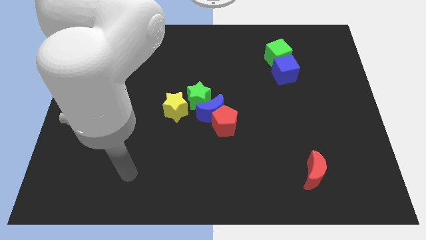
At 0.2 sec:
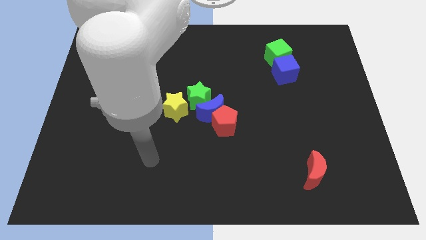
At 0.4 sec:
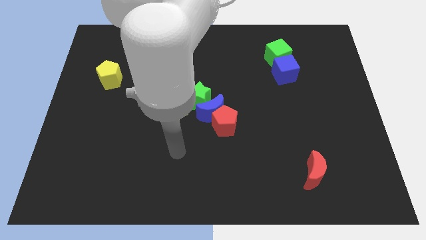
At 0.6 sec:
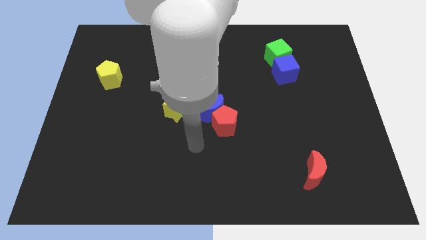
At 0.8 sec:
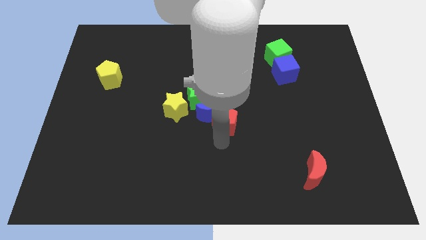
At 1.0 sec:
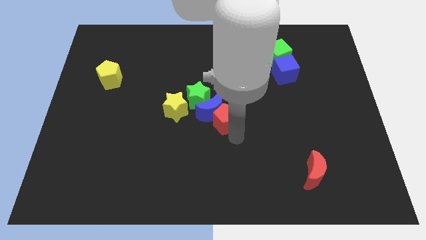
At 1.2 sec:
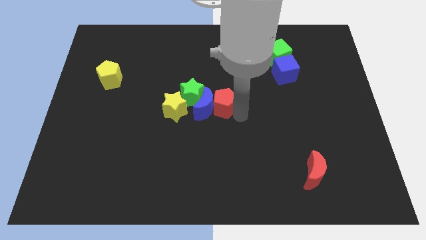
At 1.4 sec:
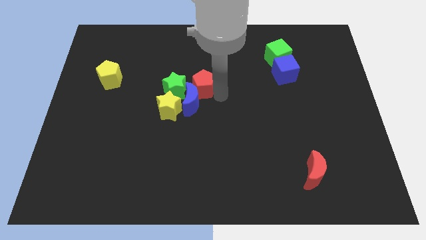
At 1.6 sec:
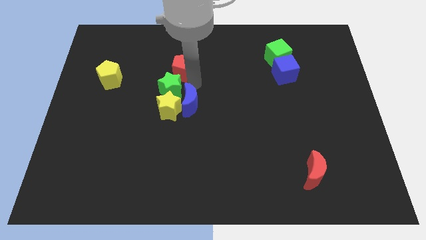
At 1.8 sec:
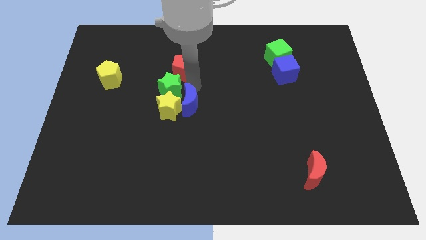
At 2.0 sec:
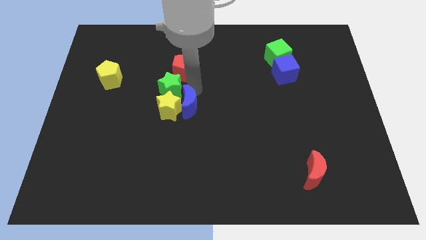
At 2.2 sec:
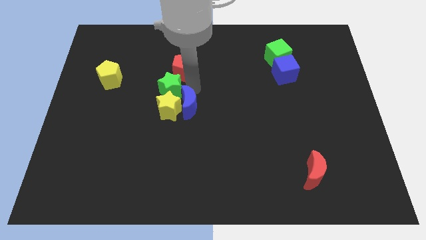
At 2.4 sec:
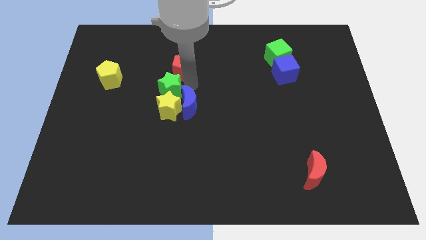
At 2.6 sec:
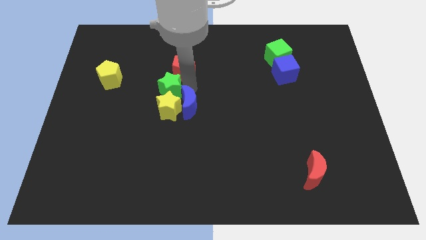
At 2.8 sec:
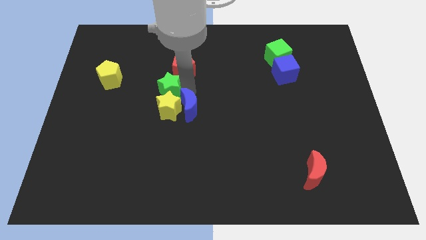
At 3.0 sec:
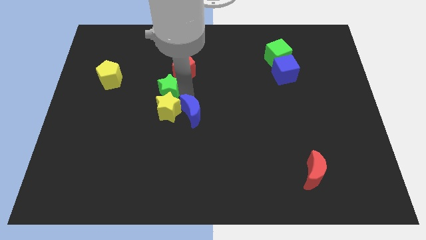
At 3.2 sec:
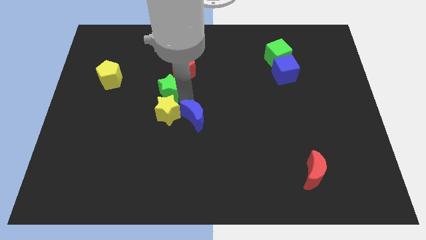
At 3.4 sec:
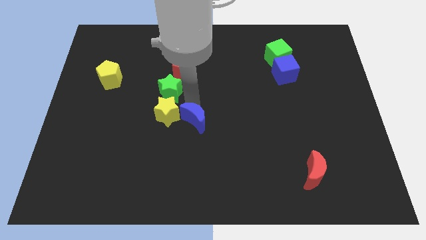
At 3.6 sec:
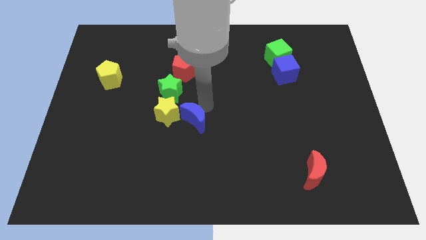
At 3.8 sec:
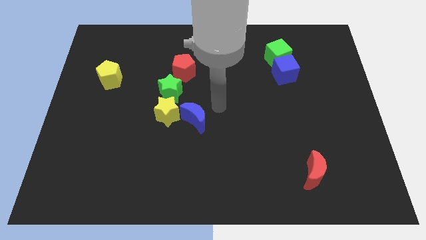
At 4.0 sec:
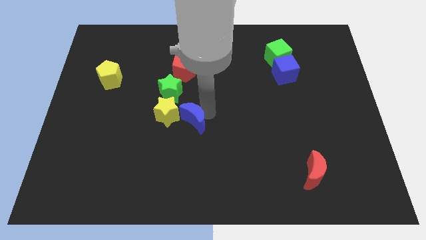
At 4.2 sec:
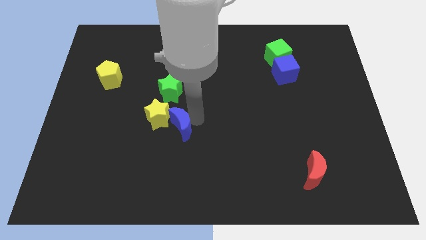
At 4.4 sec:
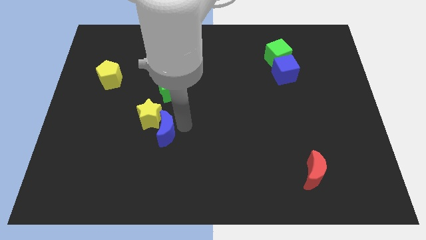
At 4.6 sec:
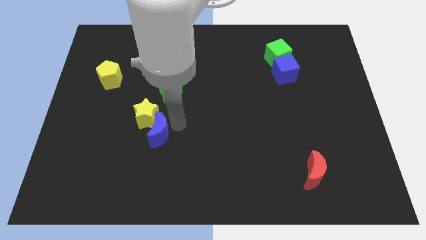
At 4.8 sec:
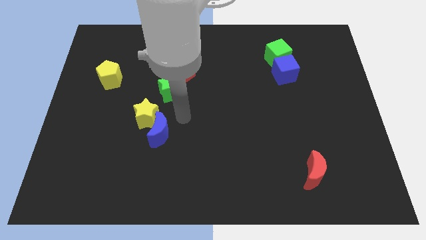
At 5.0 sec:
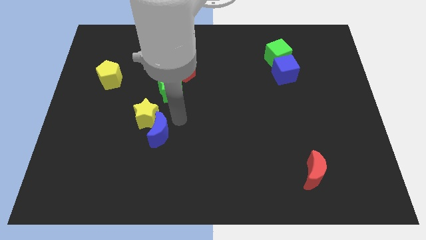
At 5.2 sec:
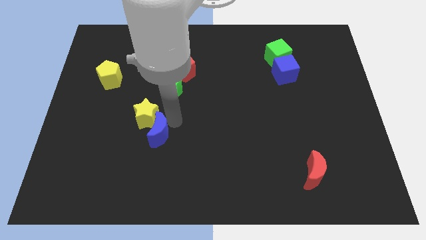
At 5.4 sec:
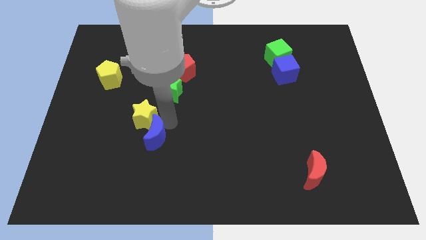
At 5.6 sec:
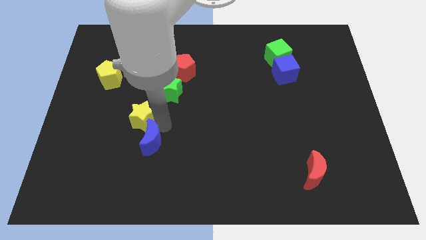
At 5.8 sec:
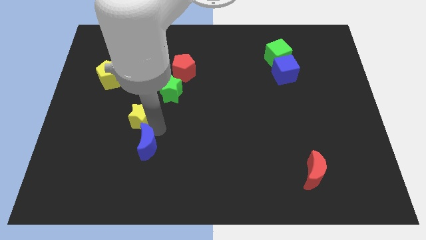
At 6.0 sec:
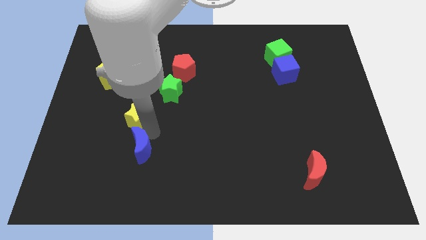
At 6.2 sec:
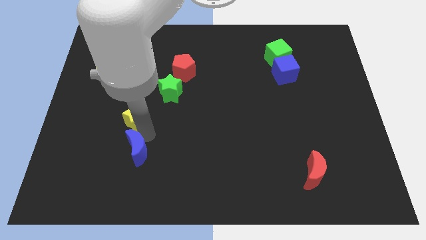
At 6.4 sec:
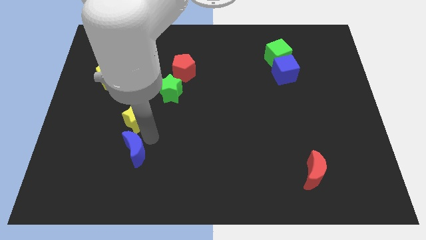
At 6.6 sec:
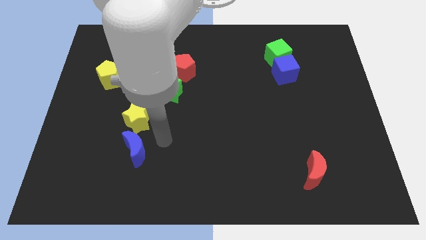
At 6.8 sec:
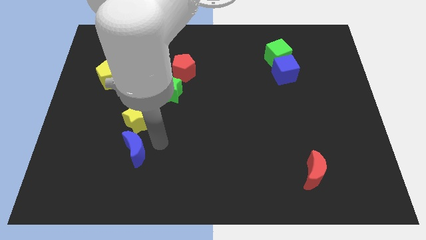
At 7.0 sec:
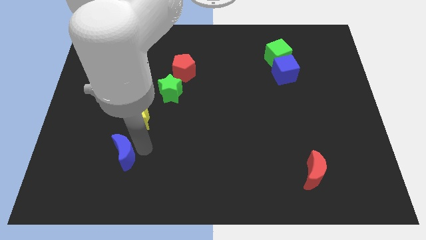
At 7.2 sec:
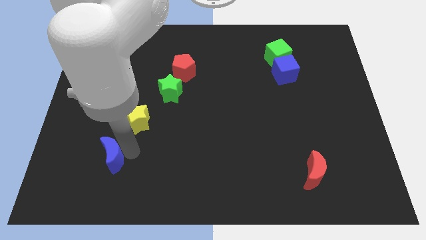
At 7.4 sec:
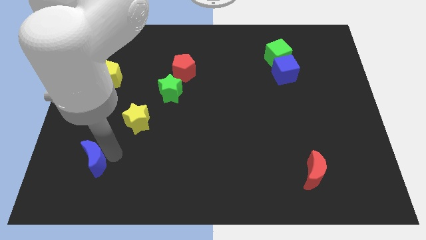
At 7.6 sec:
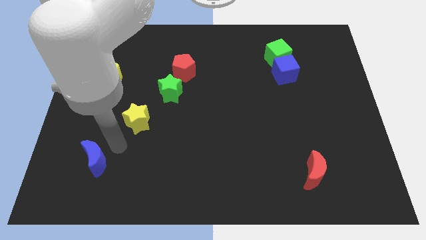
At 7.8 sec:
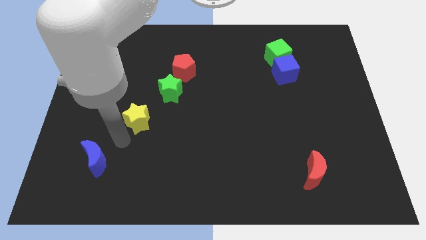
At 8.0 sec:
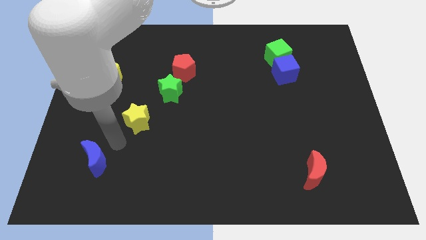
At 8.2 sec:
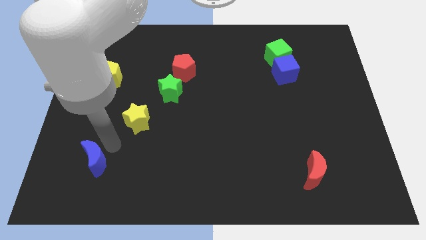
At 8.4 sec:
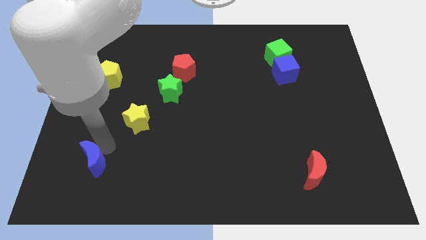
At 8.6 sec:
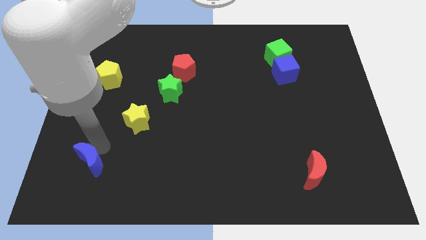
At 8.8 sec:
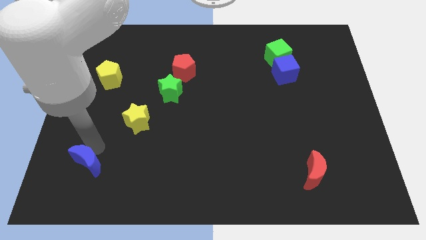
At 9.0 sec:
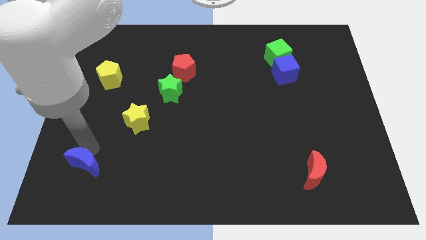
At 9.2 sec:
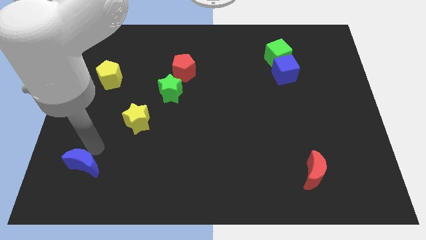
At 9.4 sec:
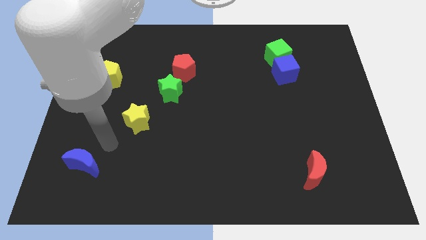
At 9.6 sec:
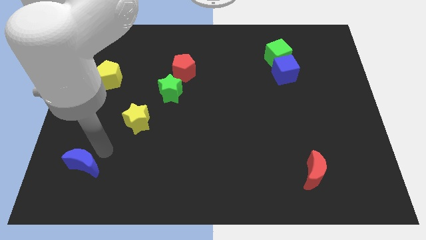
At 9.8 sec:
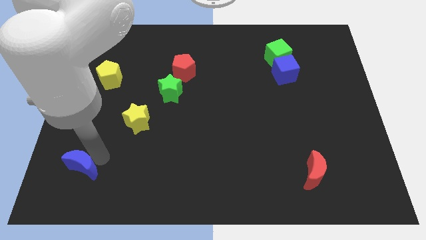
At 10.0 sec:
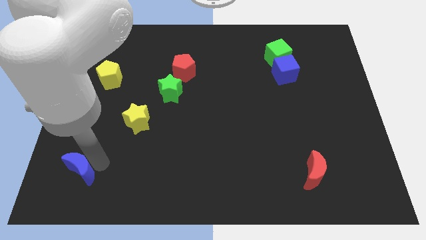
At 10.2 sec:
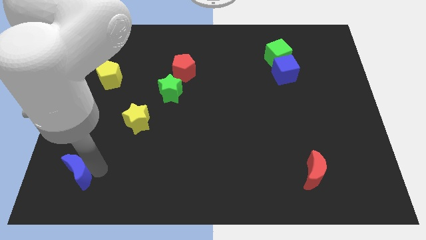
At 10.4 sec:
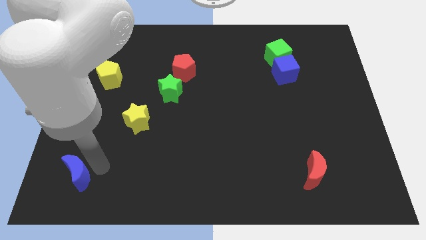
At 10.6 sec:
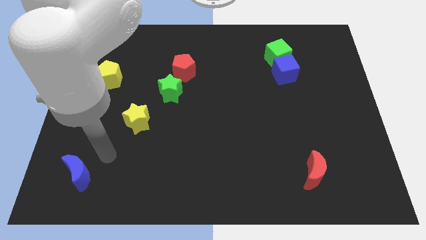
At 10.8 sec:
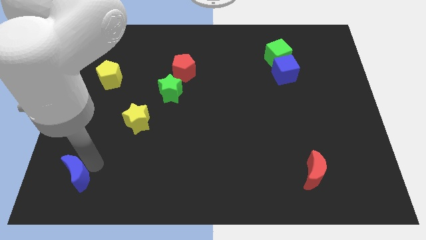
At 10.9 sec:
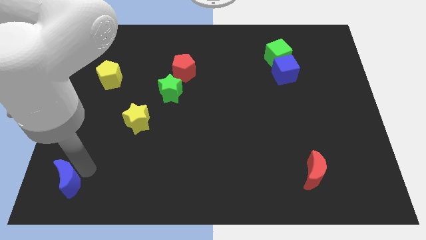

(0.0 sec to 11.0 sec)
move the blue moon to the bottom left corner

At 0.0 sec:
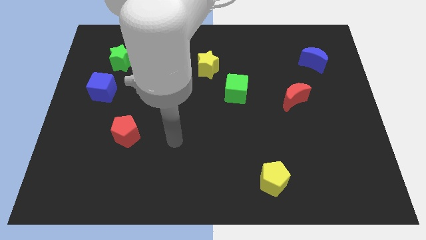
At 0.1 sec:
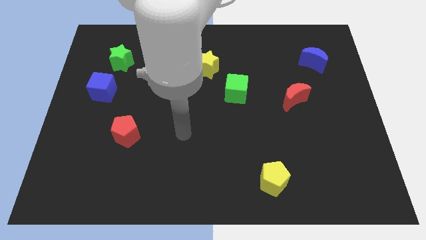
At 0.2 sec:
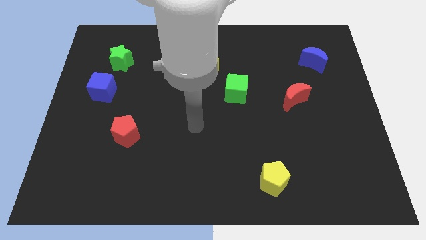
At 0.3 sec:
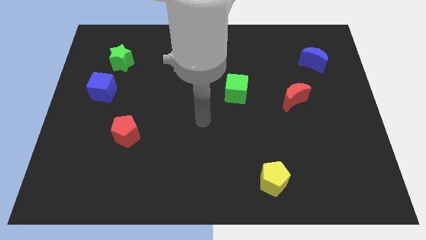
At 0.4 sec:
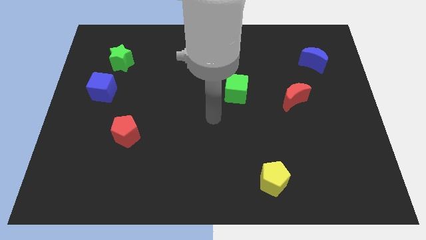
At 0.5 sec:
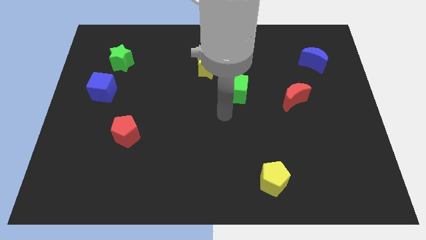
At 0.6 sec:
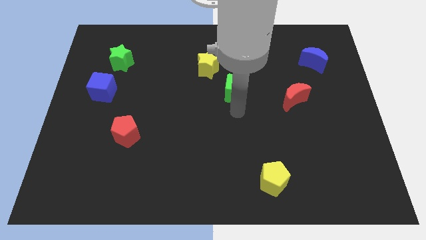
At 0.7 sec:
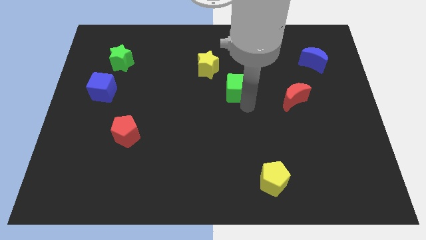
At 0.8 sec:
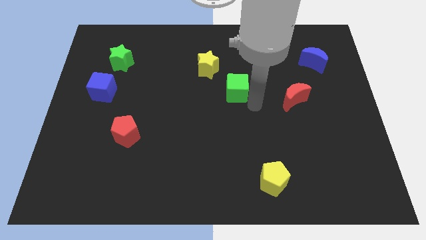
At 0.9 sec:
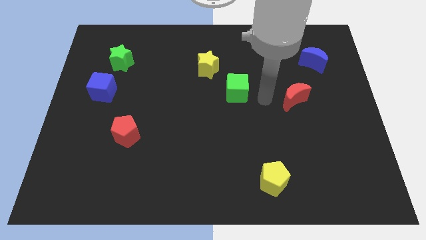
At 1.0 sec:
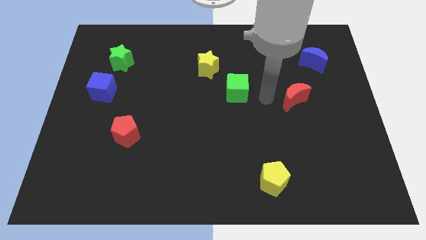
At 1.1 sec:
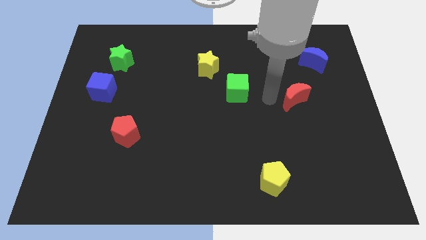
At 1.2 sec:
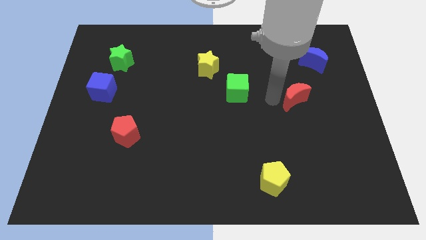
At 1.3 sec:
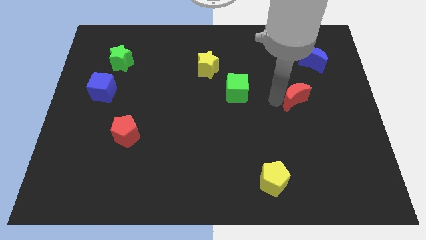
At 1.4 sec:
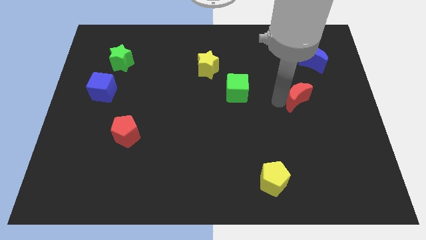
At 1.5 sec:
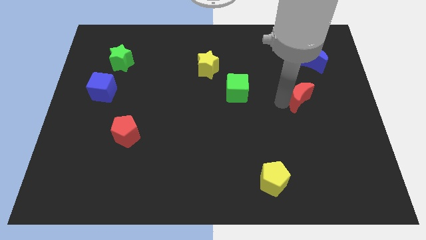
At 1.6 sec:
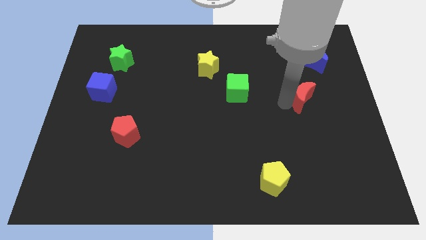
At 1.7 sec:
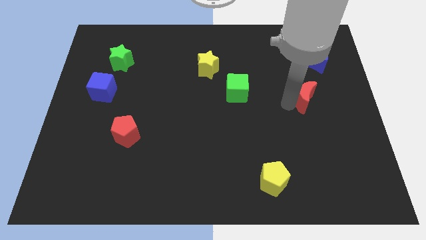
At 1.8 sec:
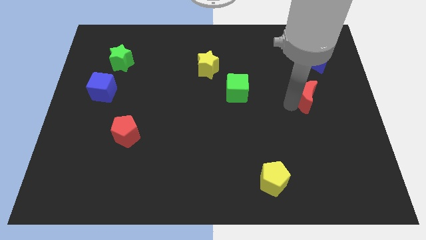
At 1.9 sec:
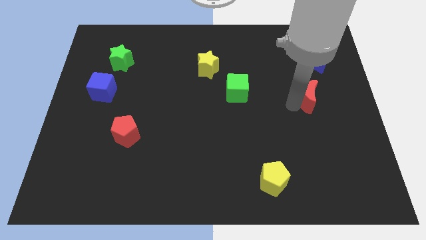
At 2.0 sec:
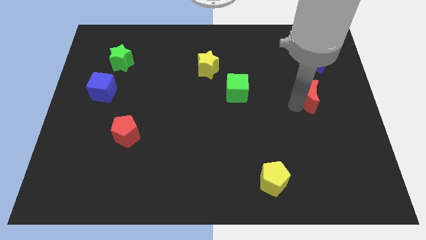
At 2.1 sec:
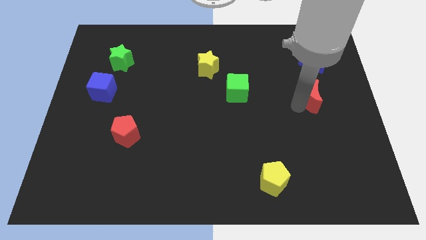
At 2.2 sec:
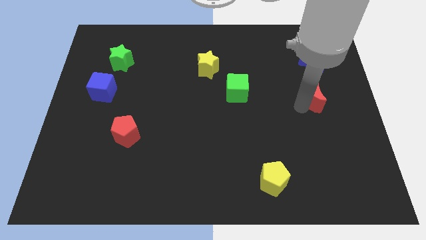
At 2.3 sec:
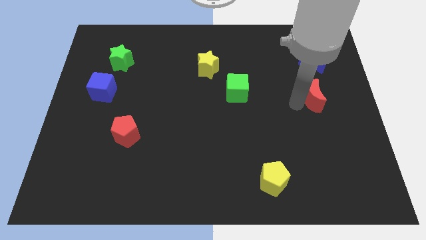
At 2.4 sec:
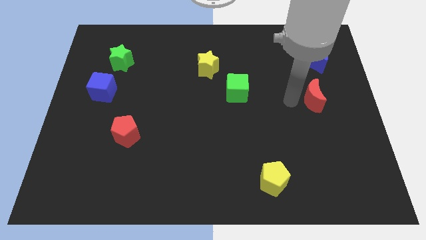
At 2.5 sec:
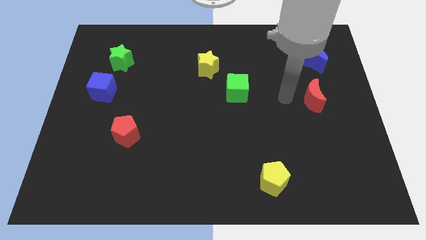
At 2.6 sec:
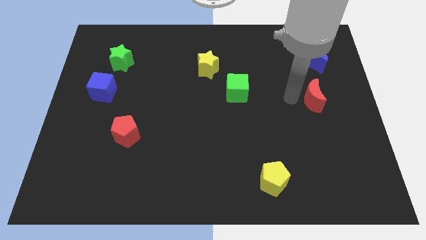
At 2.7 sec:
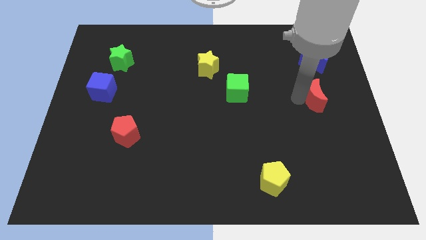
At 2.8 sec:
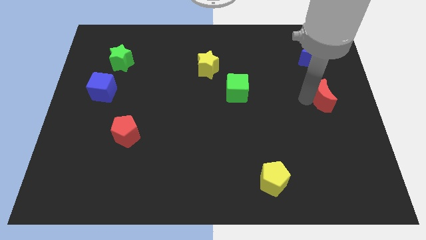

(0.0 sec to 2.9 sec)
put the red moon to the right side
